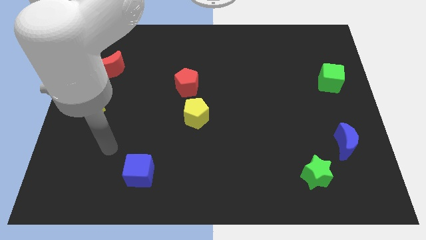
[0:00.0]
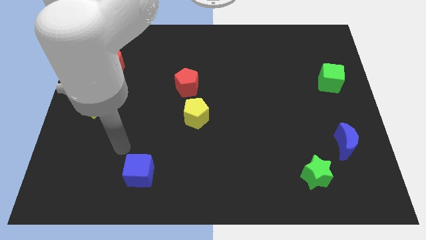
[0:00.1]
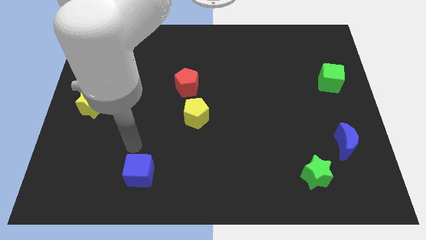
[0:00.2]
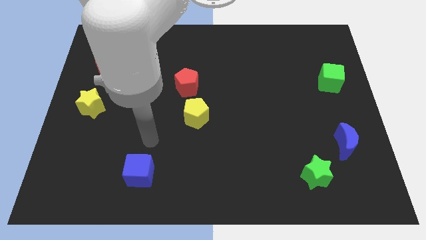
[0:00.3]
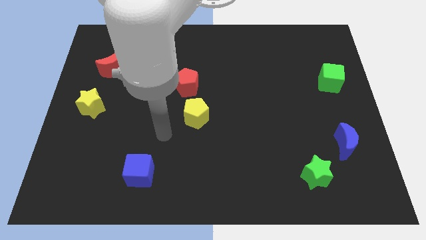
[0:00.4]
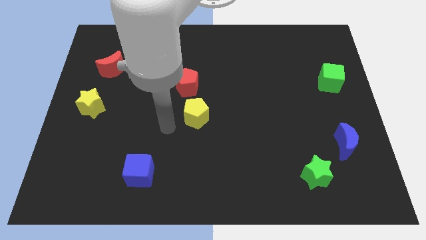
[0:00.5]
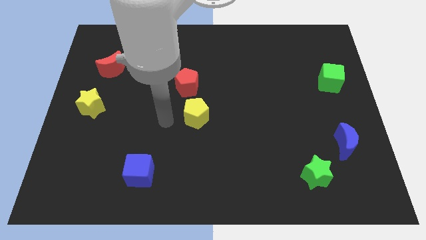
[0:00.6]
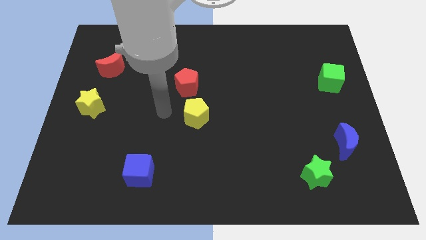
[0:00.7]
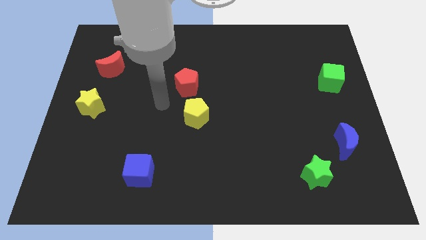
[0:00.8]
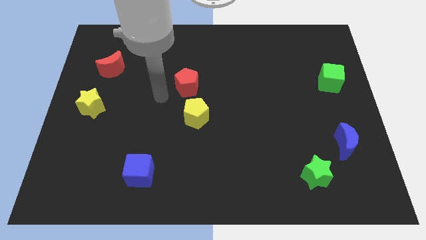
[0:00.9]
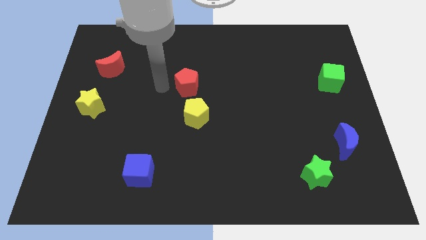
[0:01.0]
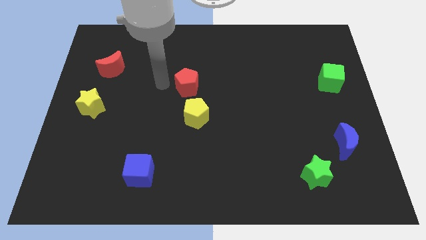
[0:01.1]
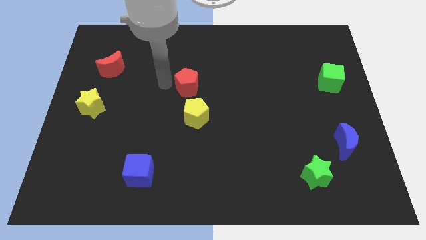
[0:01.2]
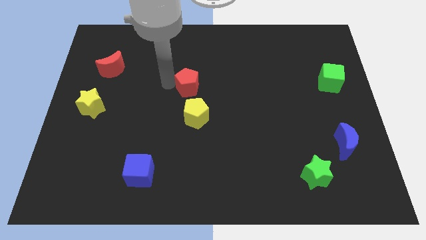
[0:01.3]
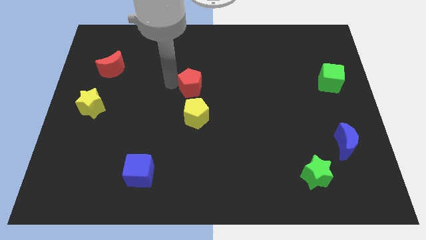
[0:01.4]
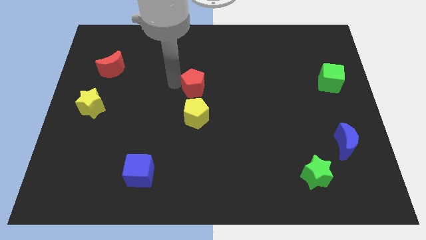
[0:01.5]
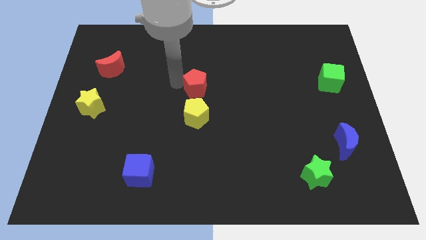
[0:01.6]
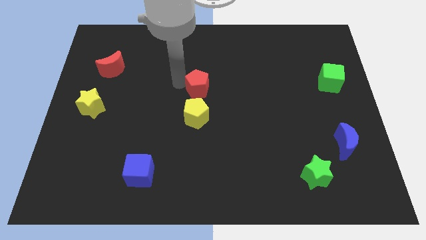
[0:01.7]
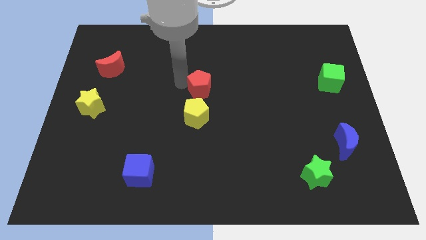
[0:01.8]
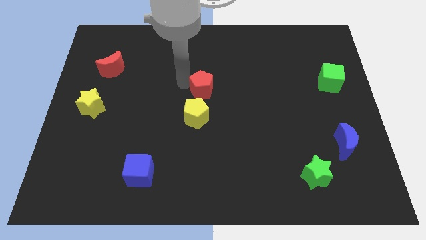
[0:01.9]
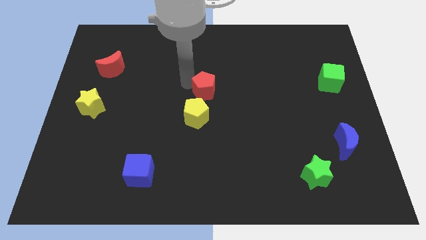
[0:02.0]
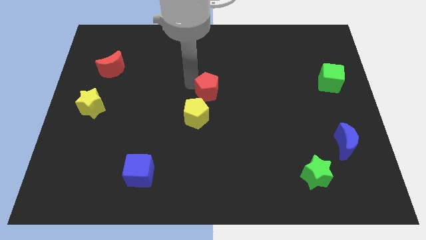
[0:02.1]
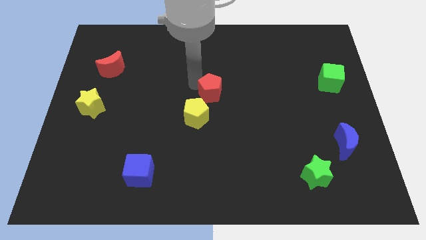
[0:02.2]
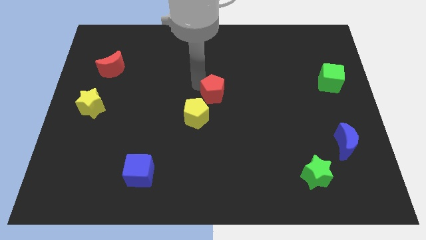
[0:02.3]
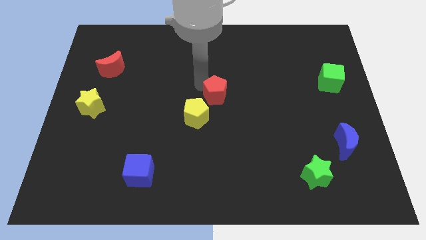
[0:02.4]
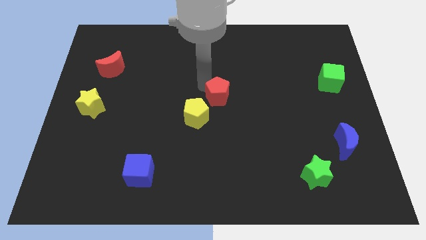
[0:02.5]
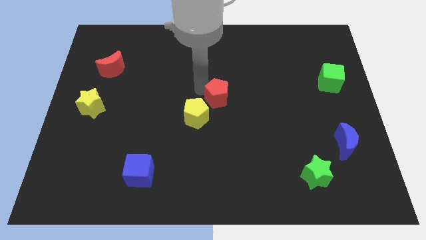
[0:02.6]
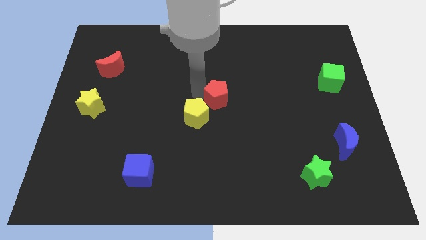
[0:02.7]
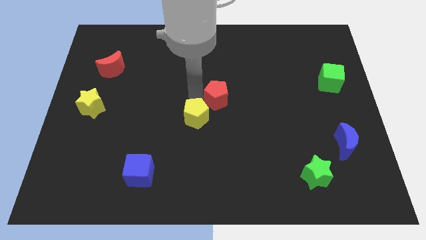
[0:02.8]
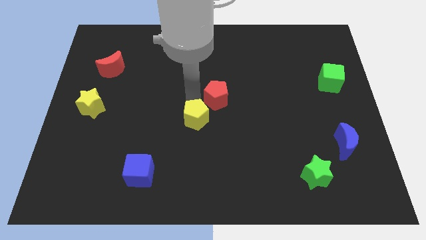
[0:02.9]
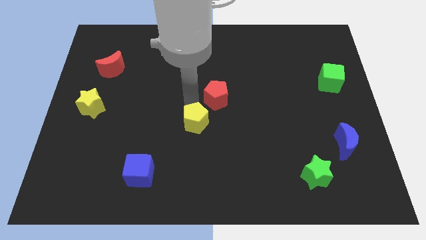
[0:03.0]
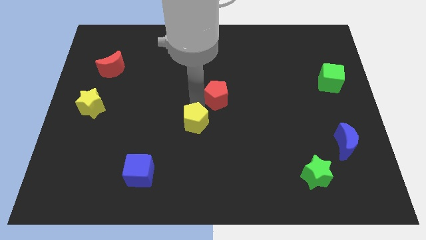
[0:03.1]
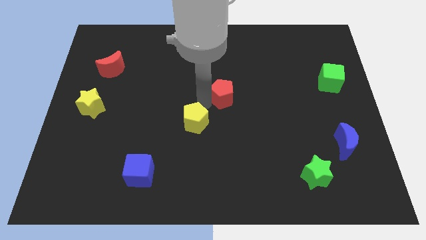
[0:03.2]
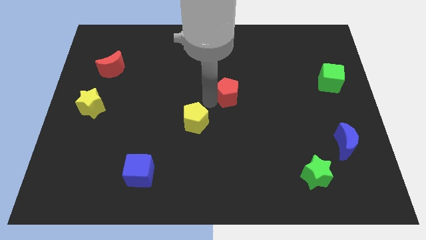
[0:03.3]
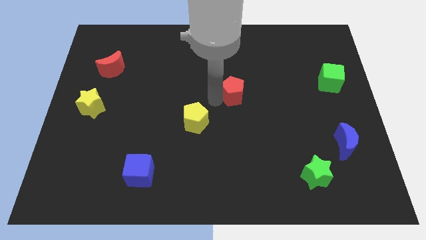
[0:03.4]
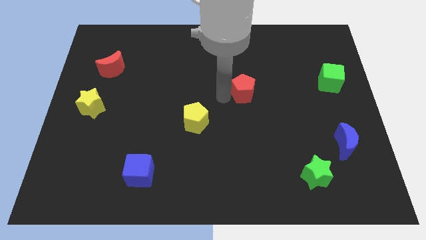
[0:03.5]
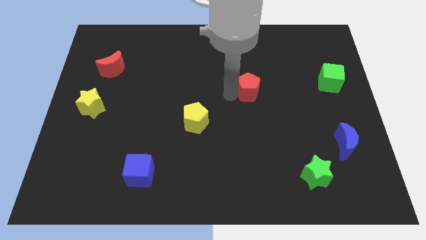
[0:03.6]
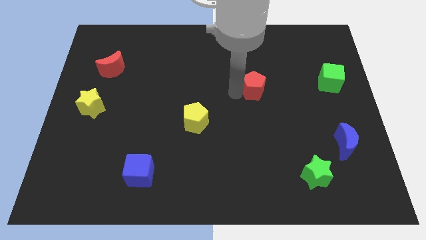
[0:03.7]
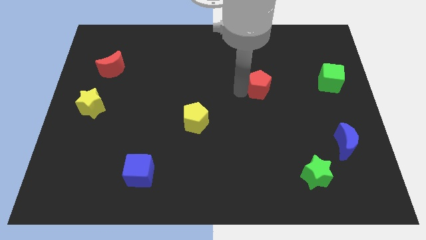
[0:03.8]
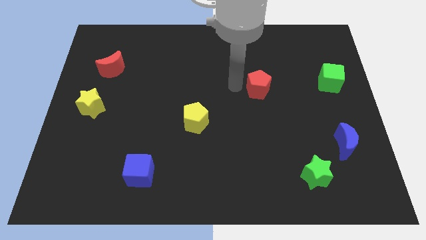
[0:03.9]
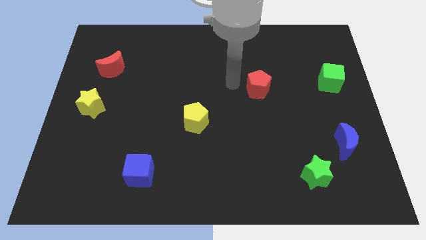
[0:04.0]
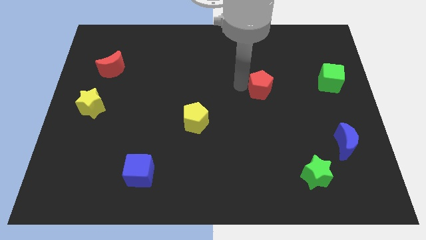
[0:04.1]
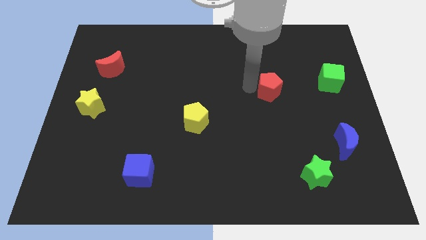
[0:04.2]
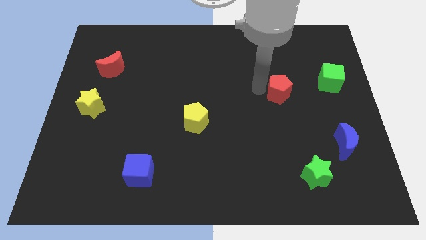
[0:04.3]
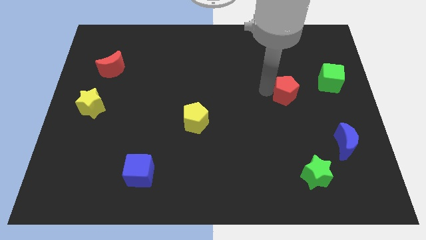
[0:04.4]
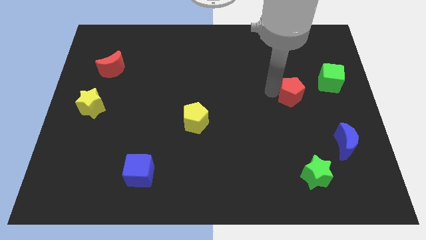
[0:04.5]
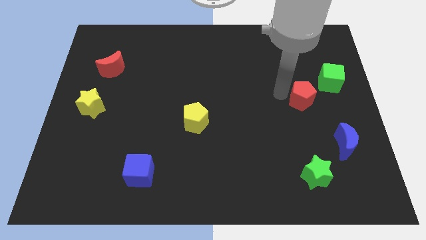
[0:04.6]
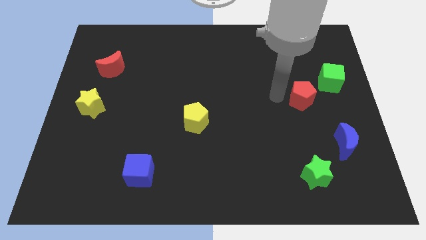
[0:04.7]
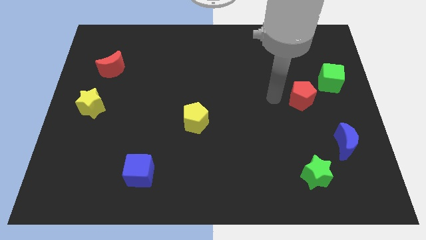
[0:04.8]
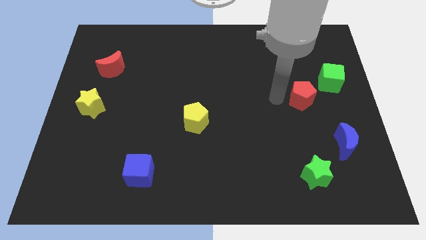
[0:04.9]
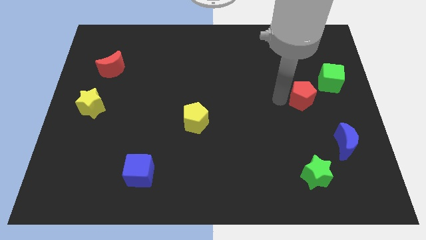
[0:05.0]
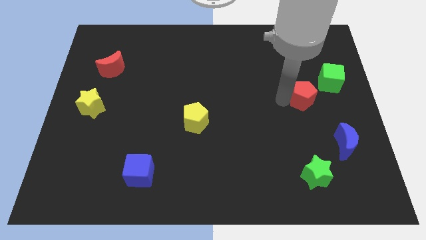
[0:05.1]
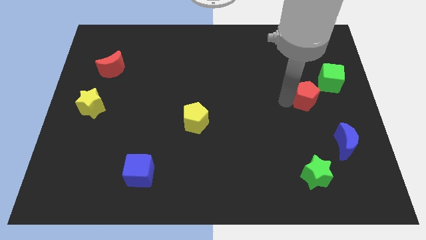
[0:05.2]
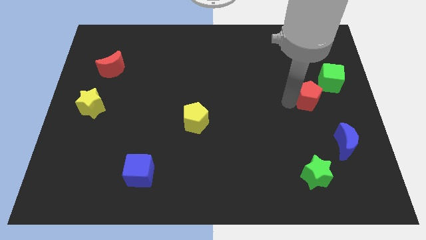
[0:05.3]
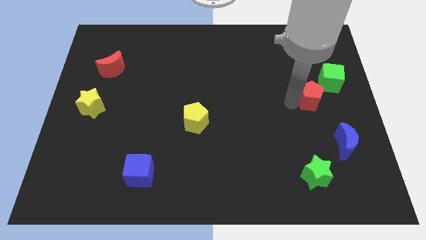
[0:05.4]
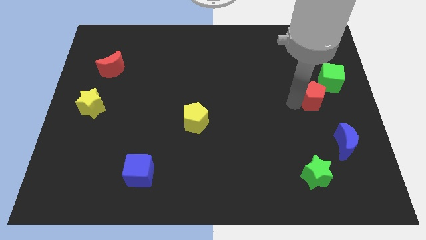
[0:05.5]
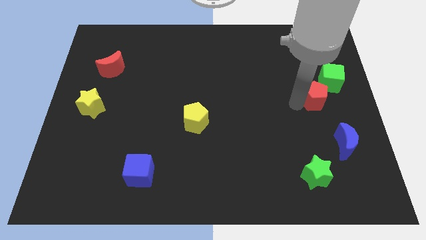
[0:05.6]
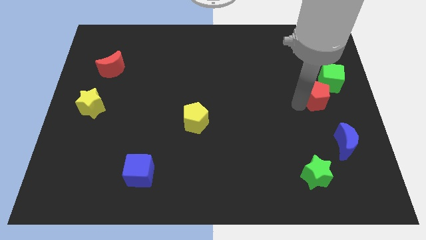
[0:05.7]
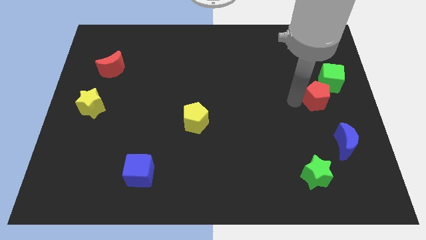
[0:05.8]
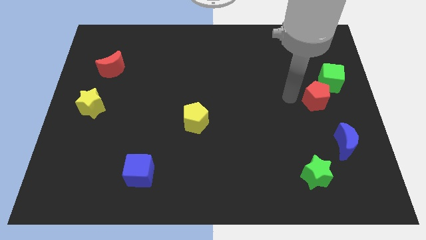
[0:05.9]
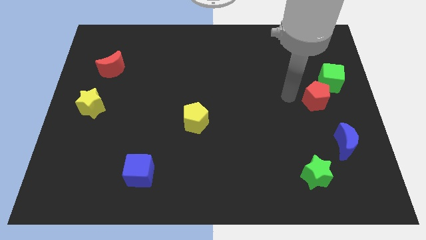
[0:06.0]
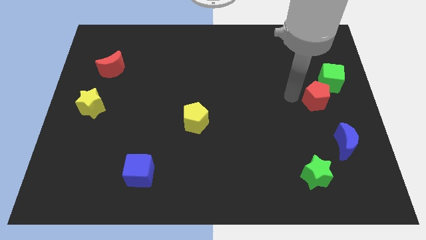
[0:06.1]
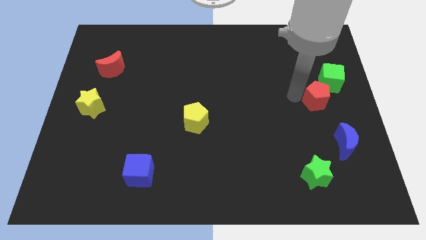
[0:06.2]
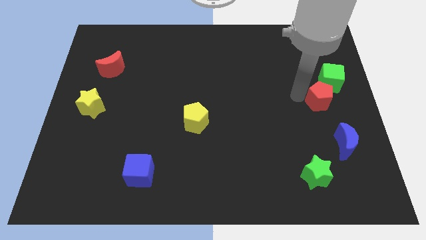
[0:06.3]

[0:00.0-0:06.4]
push the red pentagon to the center right
